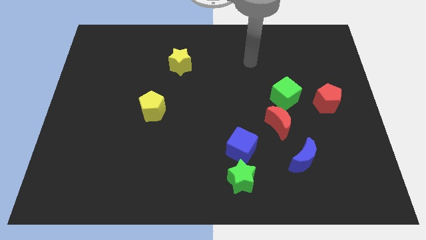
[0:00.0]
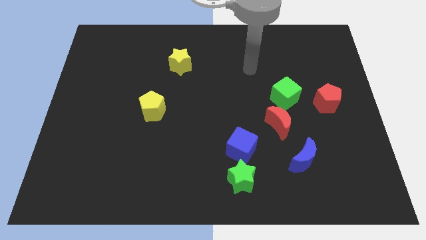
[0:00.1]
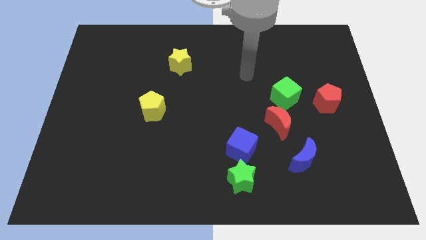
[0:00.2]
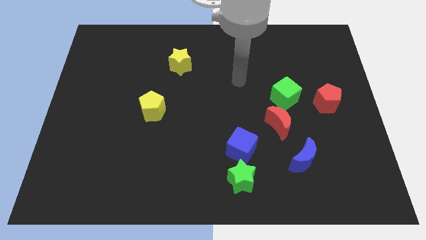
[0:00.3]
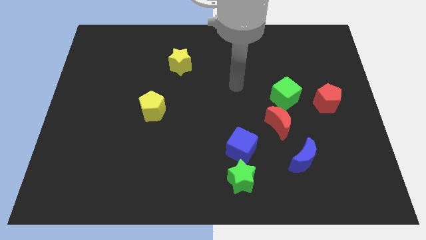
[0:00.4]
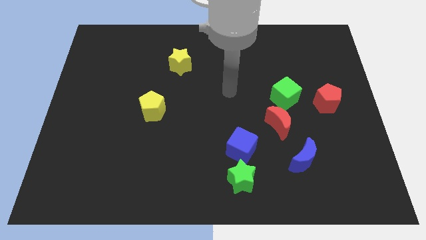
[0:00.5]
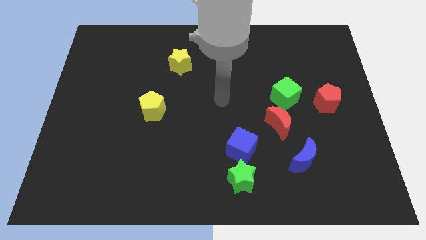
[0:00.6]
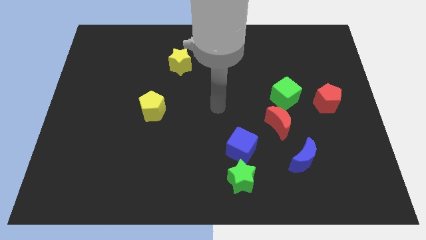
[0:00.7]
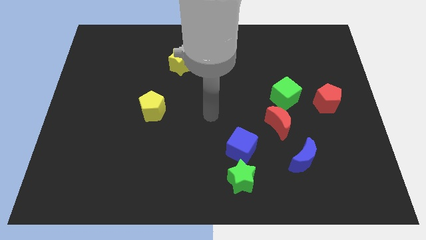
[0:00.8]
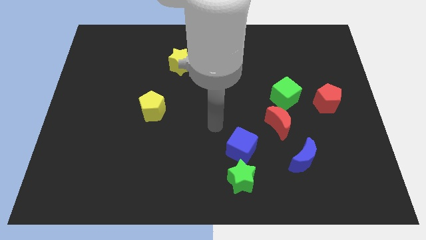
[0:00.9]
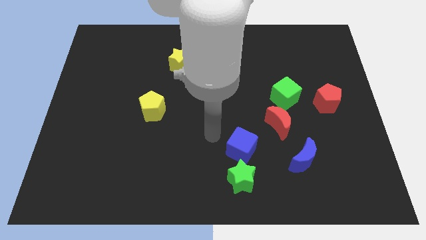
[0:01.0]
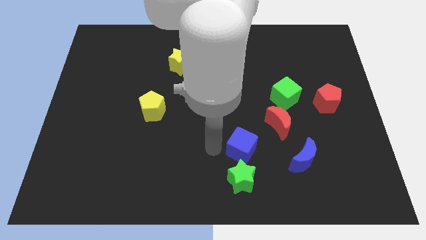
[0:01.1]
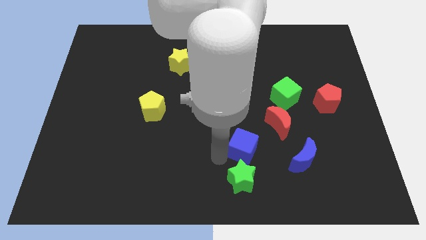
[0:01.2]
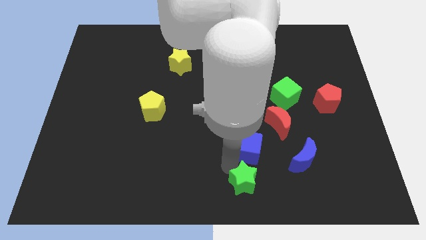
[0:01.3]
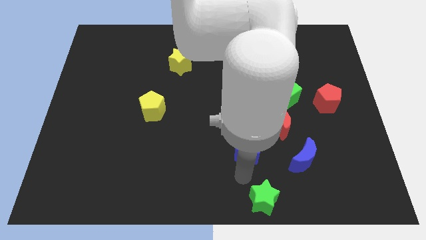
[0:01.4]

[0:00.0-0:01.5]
separate the blue cube from the green star

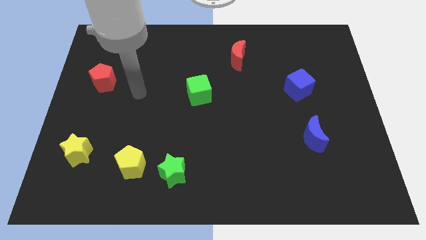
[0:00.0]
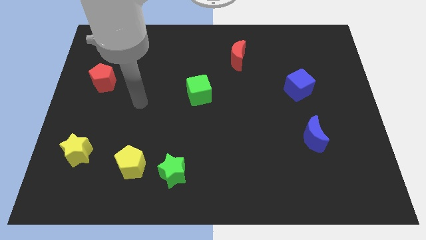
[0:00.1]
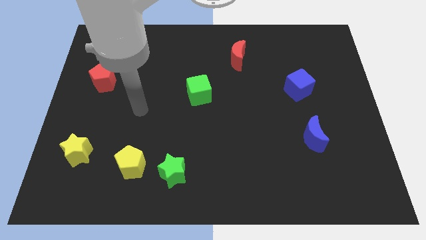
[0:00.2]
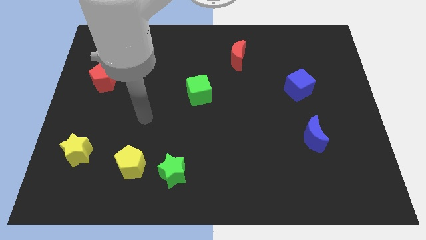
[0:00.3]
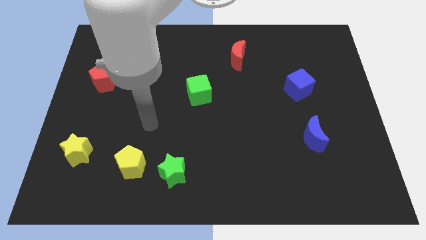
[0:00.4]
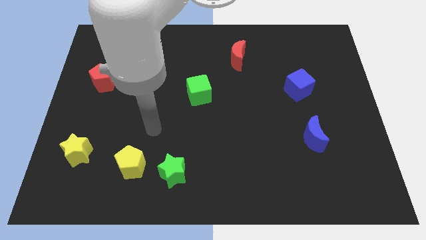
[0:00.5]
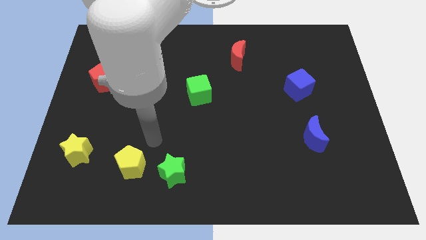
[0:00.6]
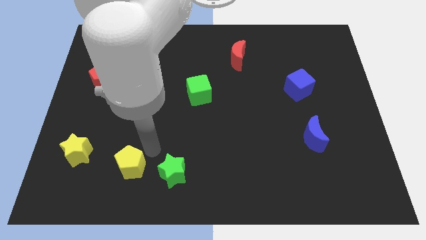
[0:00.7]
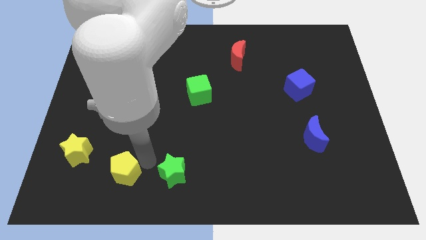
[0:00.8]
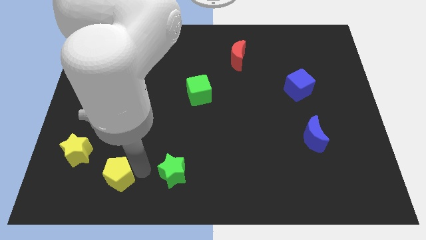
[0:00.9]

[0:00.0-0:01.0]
pull the green star apart from the yellow pentagon

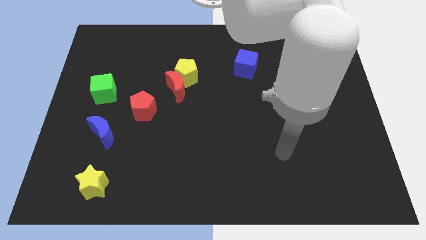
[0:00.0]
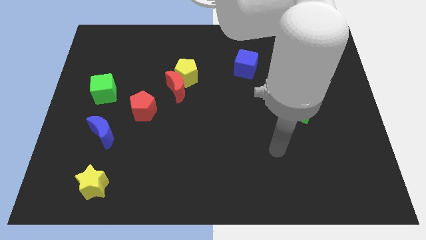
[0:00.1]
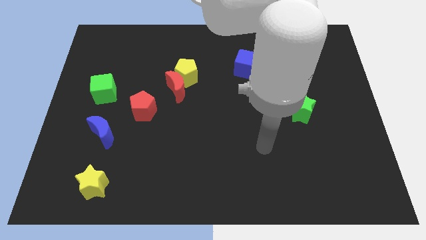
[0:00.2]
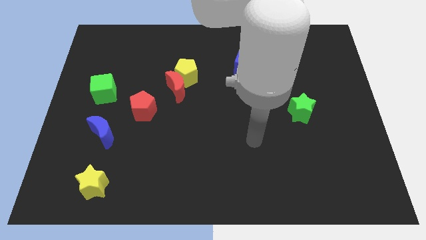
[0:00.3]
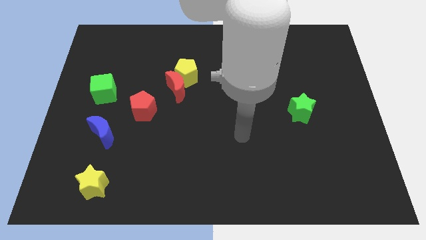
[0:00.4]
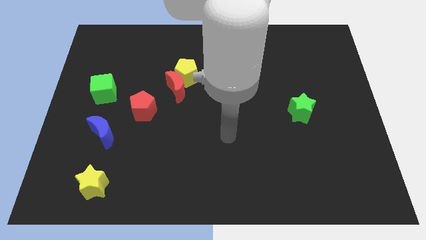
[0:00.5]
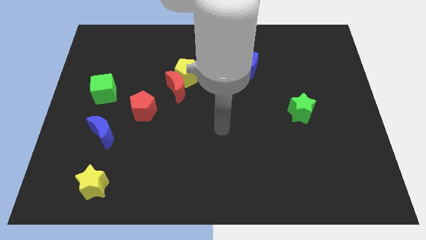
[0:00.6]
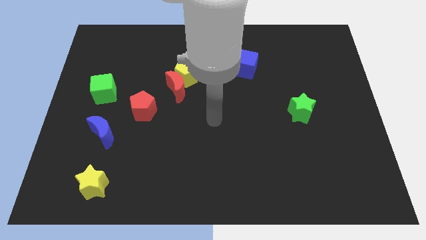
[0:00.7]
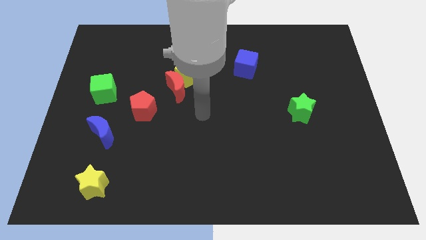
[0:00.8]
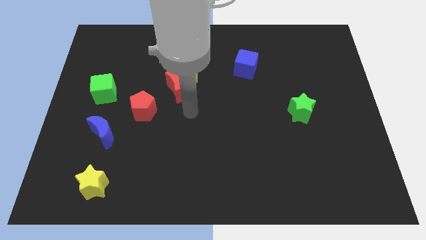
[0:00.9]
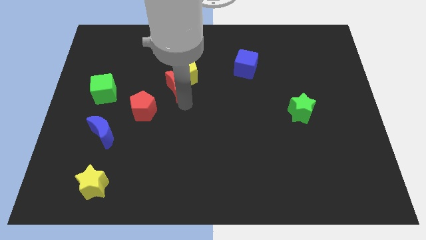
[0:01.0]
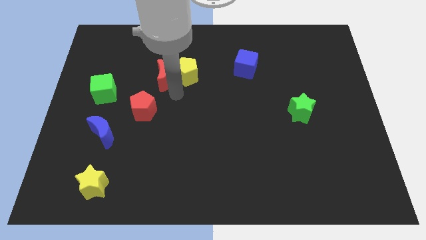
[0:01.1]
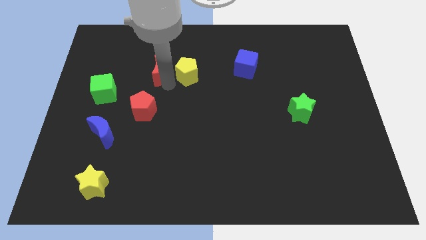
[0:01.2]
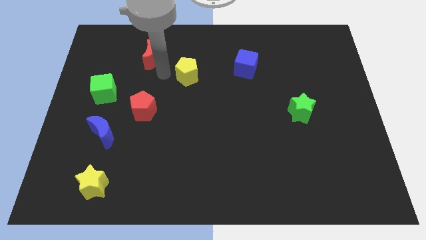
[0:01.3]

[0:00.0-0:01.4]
pull the yellow pentagon apart from the red moon

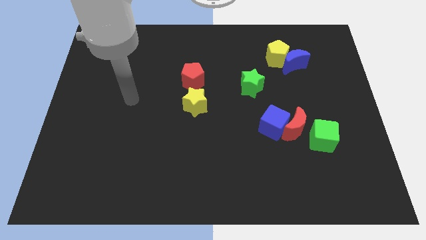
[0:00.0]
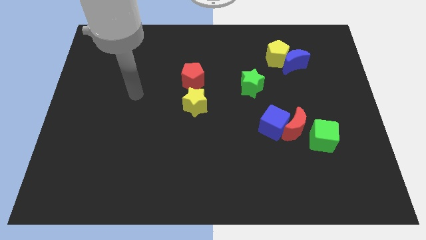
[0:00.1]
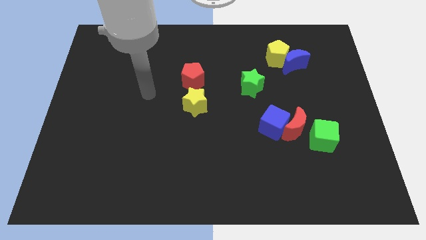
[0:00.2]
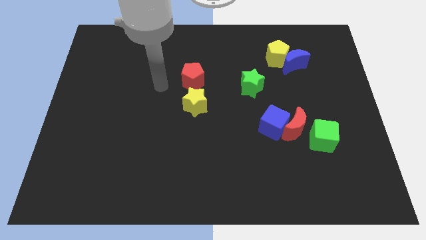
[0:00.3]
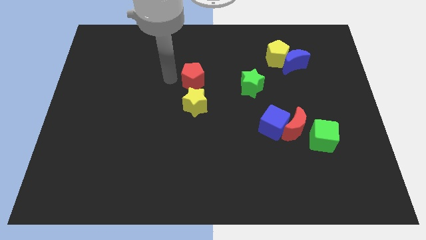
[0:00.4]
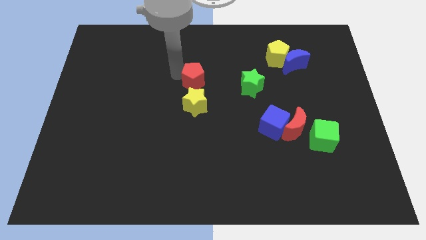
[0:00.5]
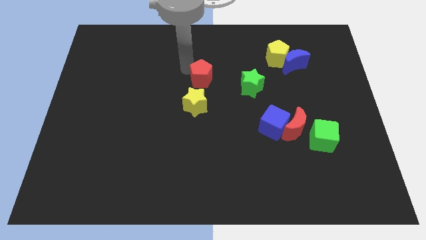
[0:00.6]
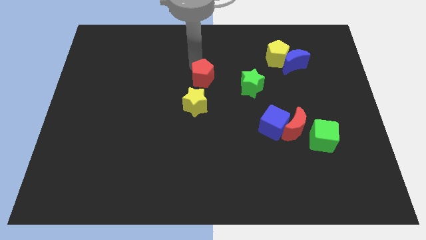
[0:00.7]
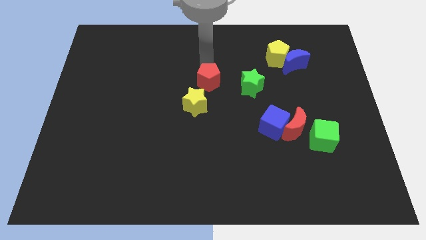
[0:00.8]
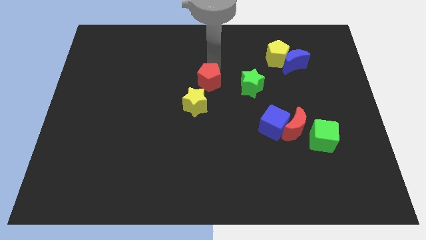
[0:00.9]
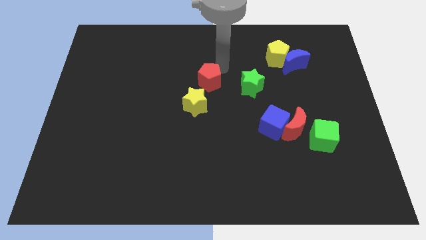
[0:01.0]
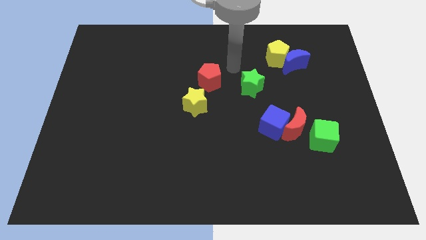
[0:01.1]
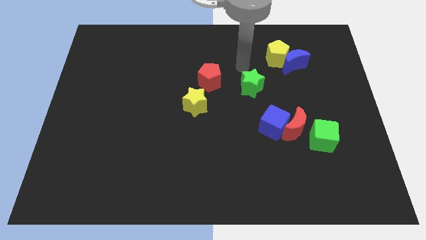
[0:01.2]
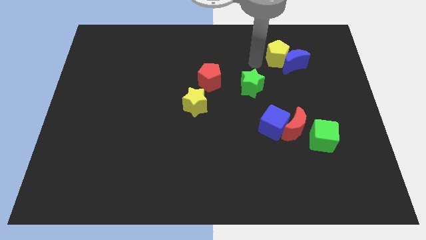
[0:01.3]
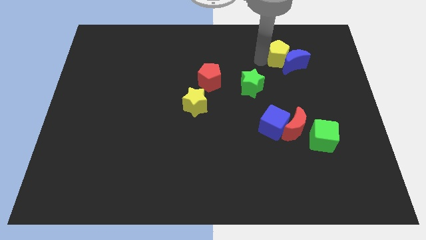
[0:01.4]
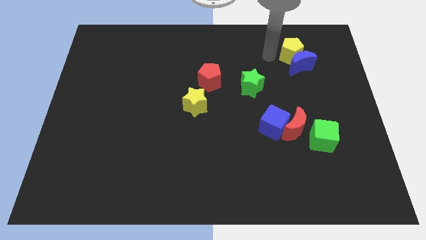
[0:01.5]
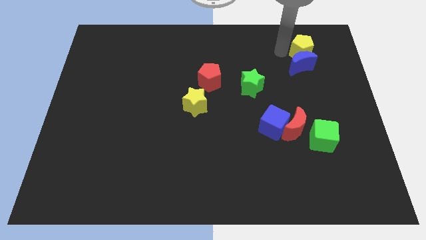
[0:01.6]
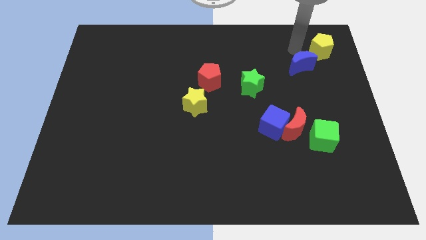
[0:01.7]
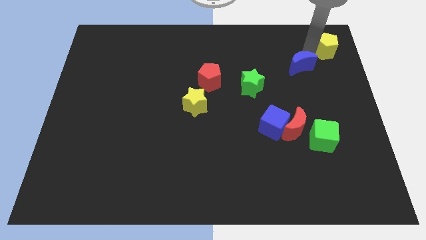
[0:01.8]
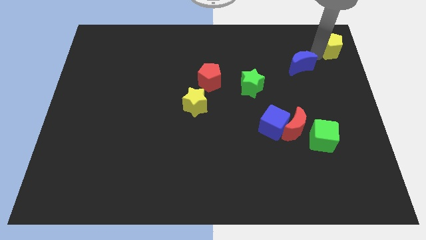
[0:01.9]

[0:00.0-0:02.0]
pull the blue moon apart from the yellow pentagon

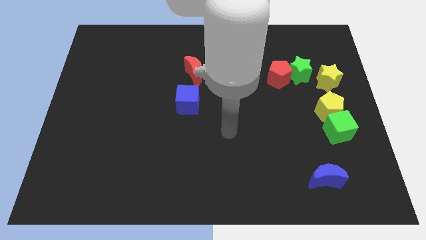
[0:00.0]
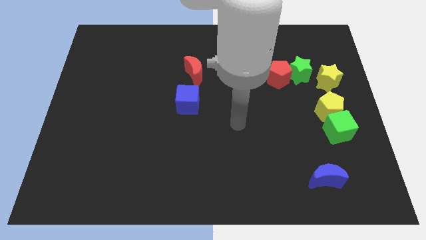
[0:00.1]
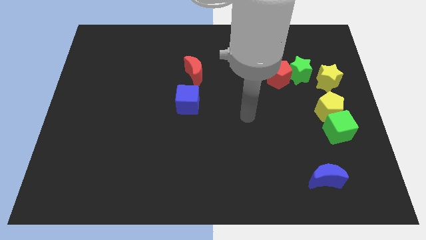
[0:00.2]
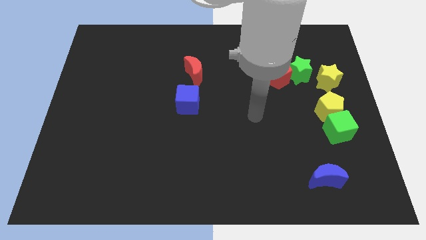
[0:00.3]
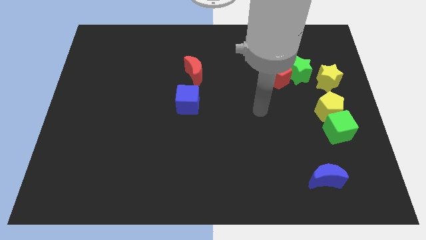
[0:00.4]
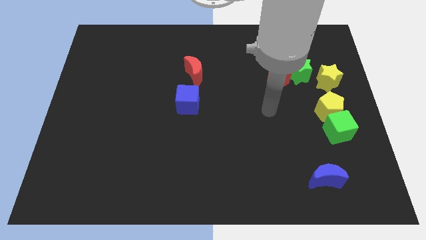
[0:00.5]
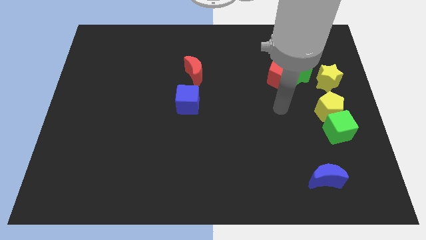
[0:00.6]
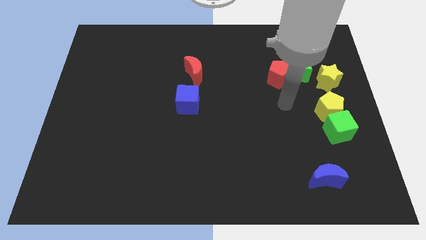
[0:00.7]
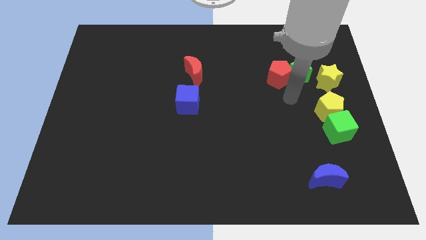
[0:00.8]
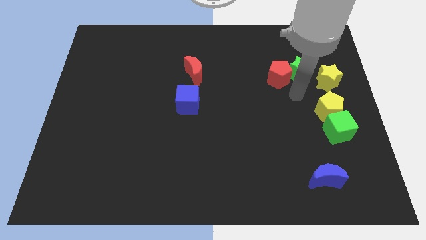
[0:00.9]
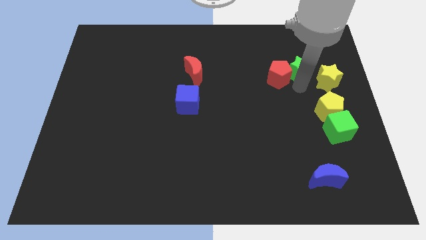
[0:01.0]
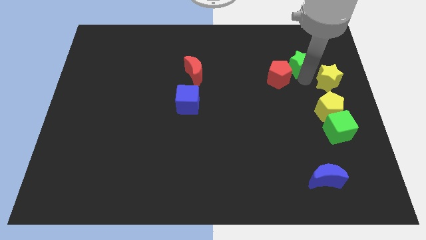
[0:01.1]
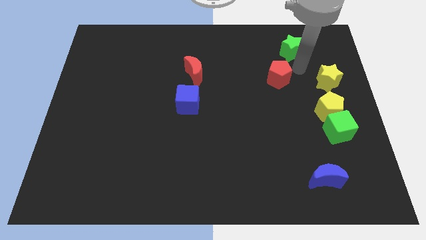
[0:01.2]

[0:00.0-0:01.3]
move the red pentagon away from the green star

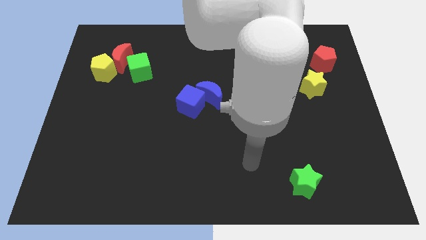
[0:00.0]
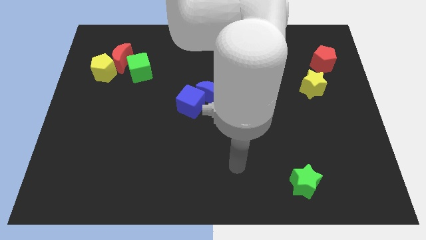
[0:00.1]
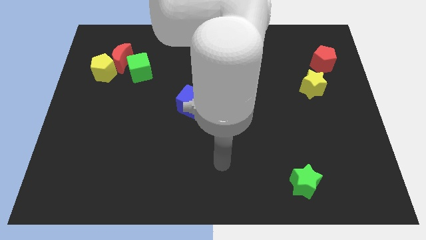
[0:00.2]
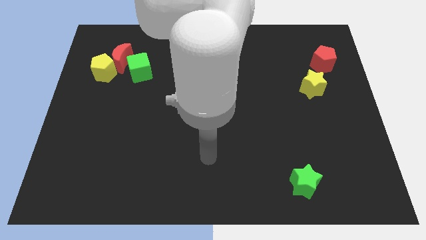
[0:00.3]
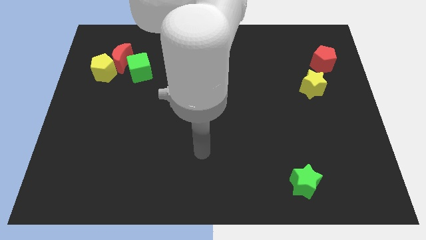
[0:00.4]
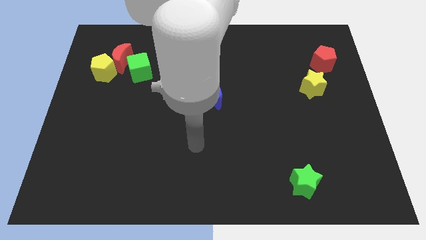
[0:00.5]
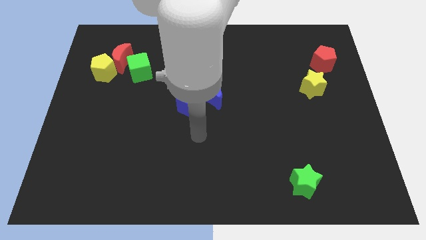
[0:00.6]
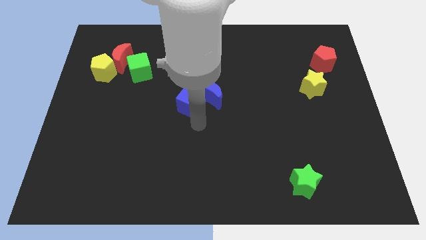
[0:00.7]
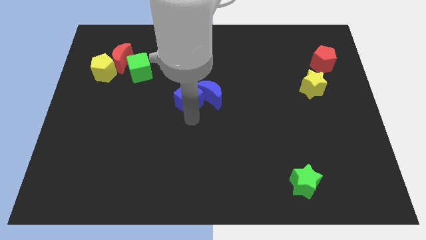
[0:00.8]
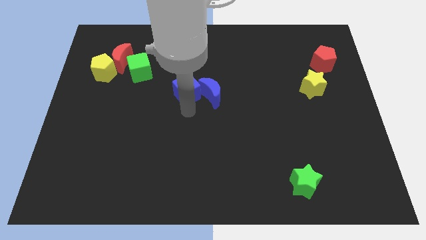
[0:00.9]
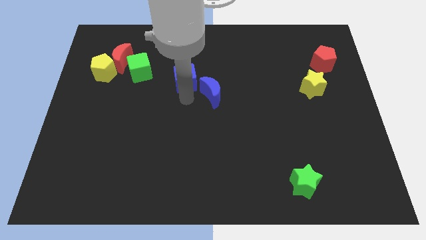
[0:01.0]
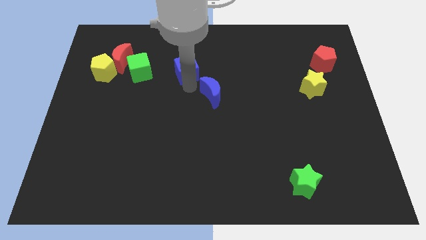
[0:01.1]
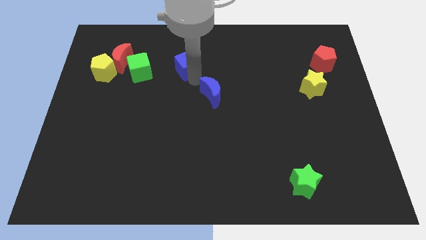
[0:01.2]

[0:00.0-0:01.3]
separate the blue moon from the blue cube

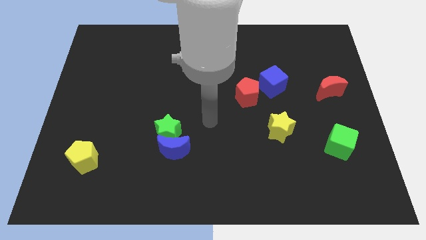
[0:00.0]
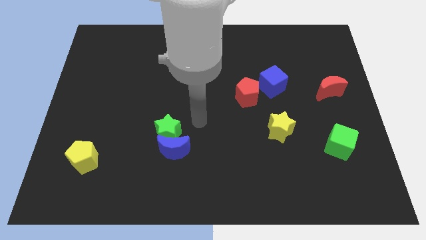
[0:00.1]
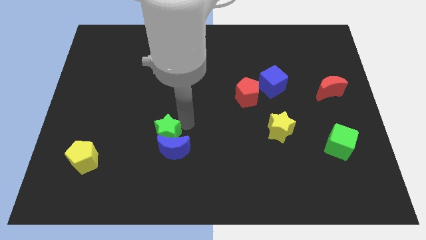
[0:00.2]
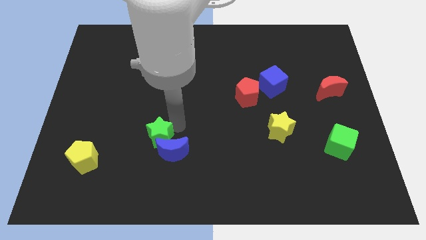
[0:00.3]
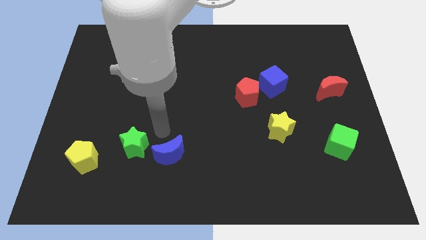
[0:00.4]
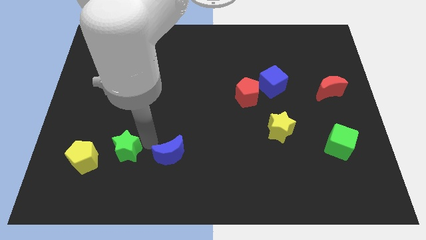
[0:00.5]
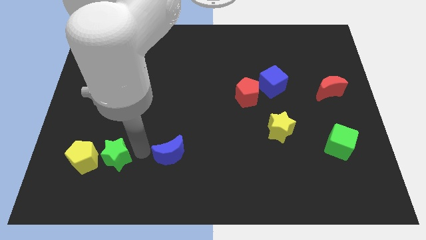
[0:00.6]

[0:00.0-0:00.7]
separate the blue moon from the green star
